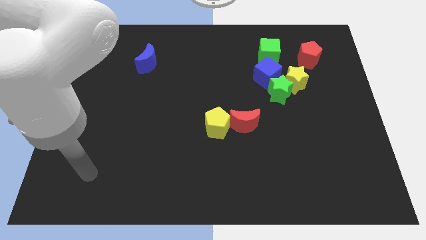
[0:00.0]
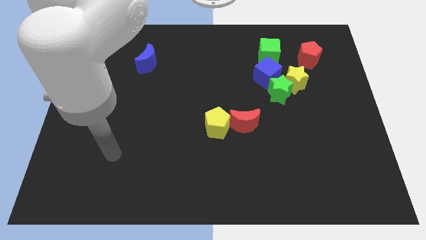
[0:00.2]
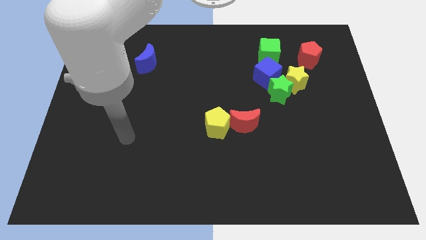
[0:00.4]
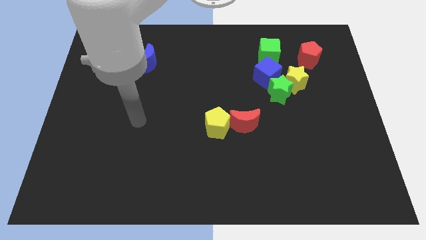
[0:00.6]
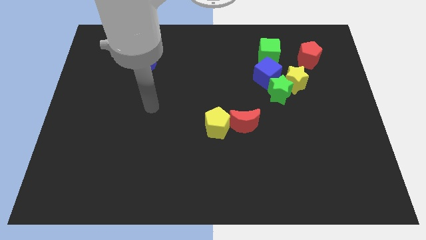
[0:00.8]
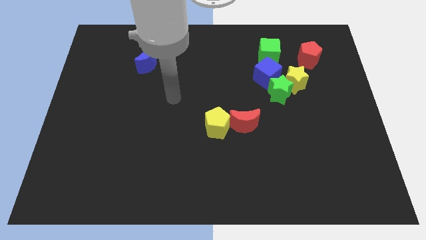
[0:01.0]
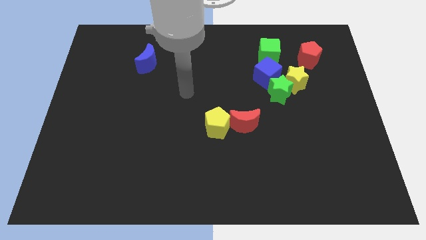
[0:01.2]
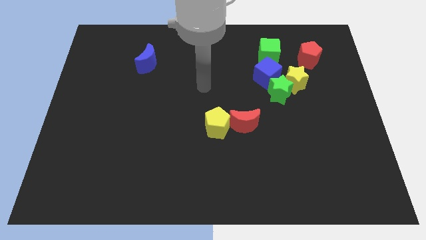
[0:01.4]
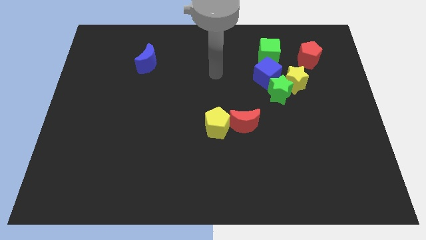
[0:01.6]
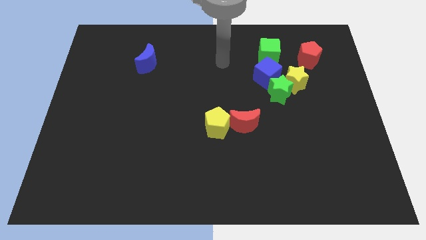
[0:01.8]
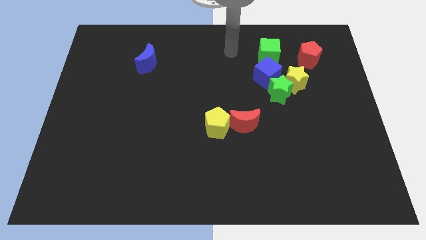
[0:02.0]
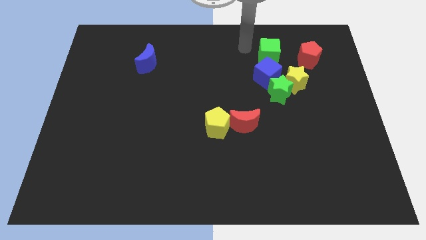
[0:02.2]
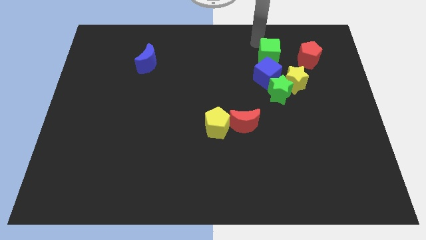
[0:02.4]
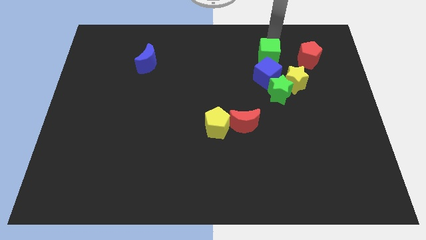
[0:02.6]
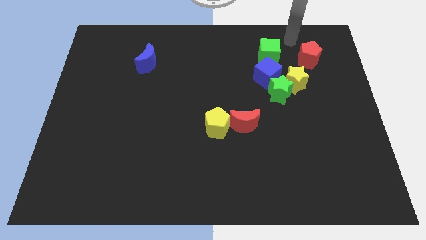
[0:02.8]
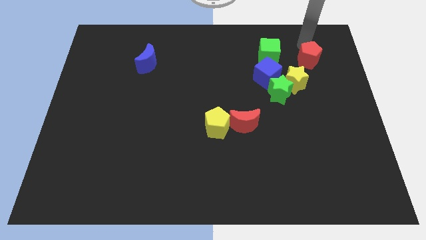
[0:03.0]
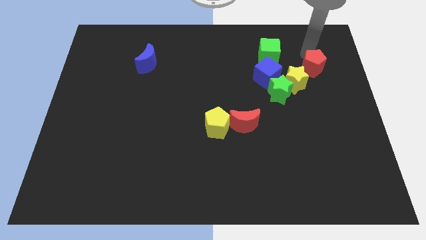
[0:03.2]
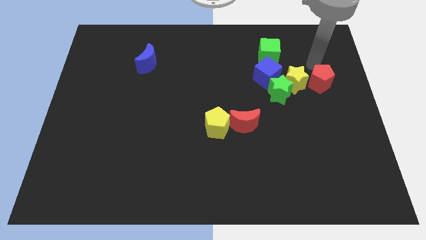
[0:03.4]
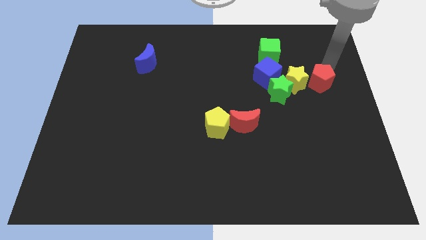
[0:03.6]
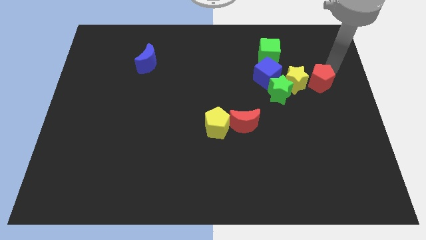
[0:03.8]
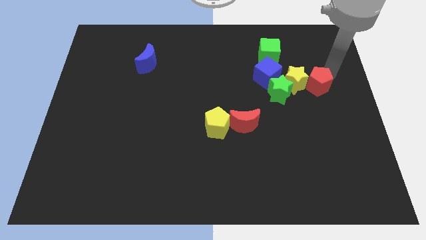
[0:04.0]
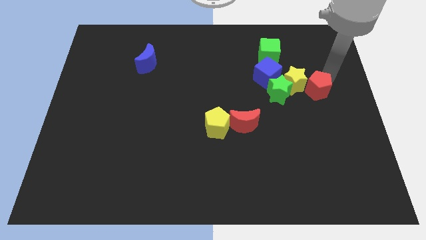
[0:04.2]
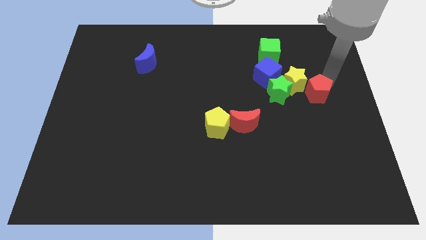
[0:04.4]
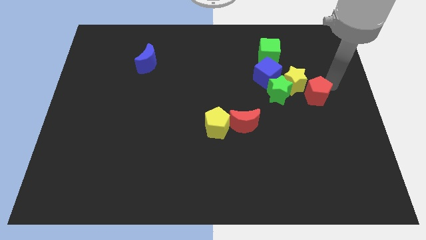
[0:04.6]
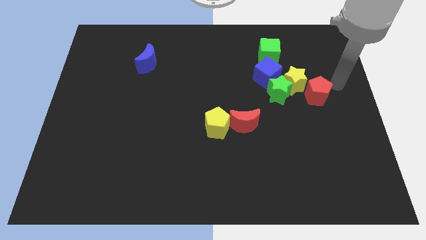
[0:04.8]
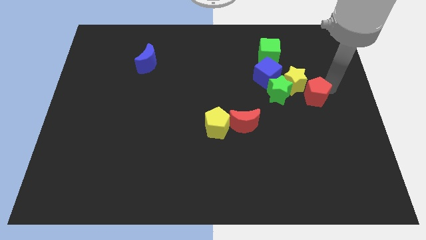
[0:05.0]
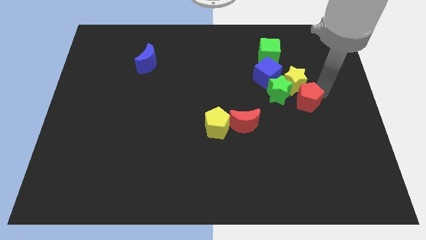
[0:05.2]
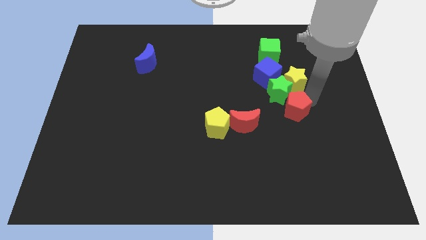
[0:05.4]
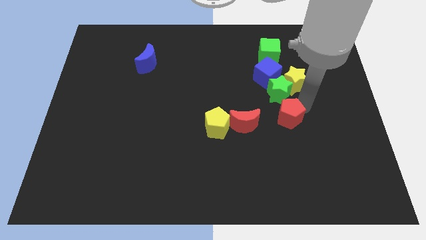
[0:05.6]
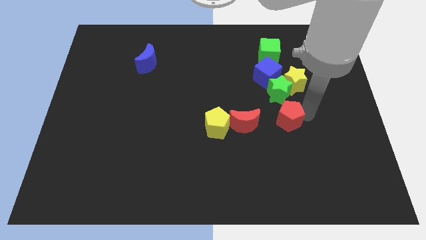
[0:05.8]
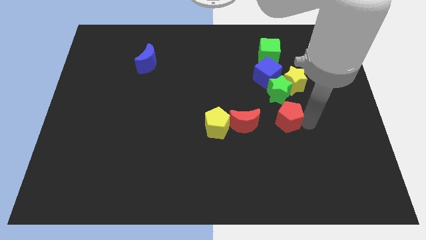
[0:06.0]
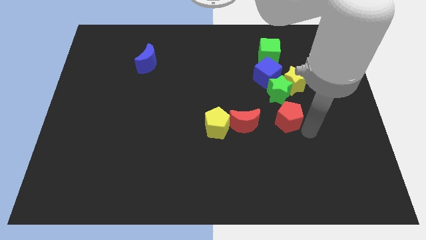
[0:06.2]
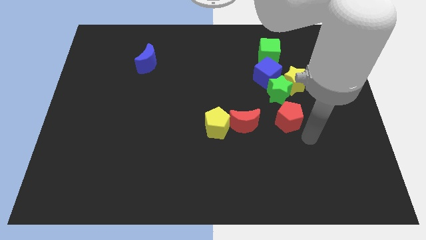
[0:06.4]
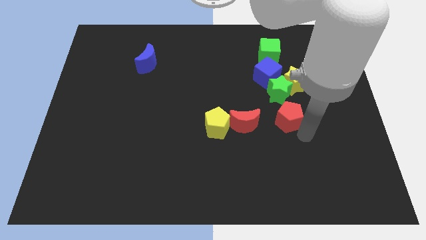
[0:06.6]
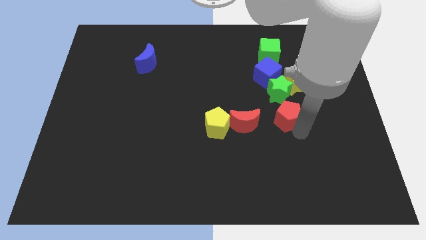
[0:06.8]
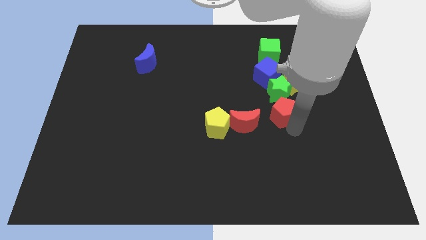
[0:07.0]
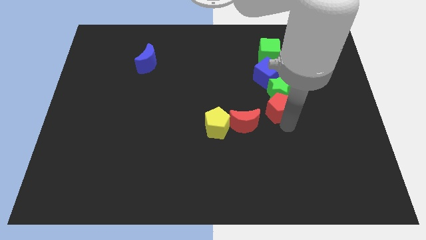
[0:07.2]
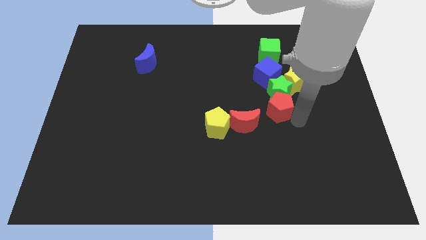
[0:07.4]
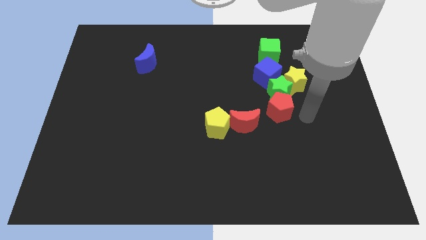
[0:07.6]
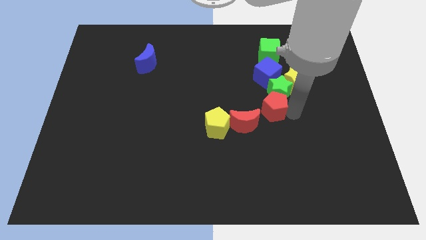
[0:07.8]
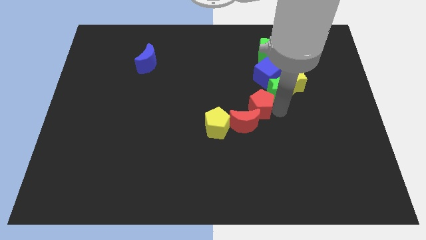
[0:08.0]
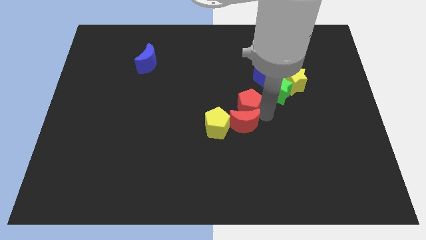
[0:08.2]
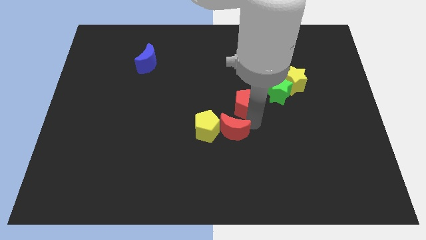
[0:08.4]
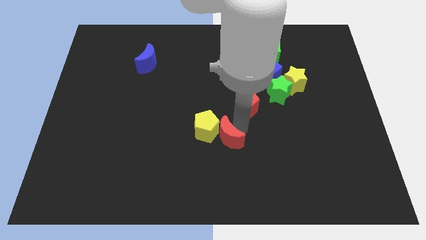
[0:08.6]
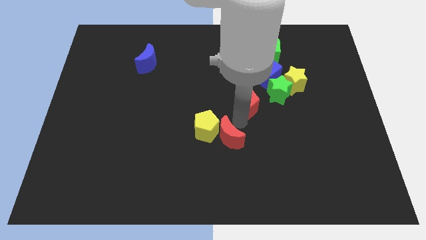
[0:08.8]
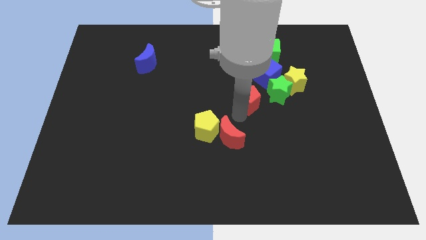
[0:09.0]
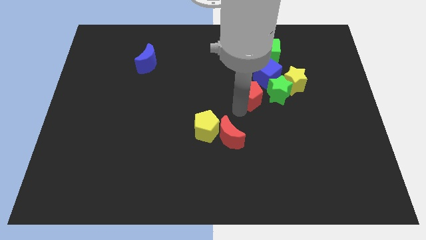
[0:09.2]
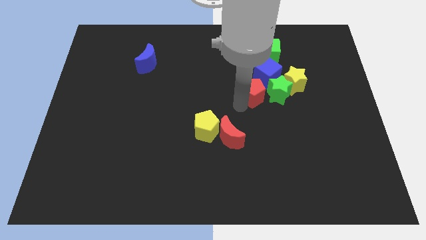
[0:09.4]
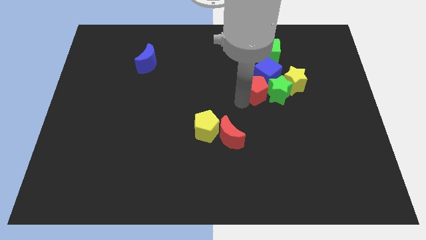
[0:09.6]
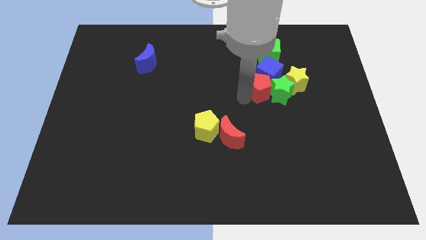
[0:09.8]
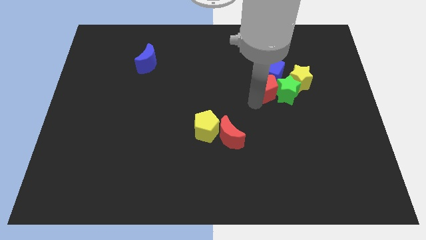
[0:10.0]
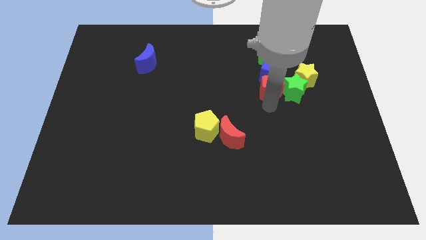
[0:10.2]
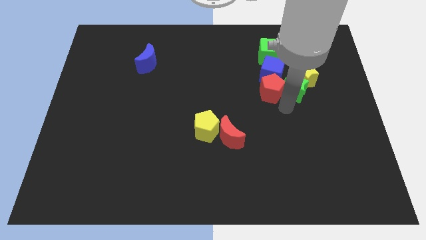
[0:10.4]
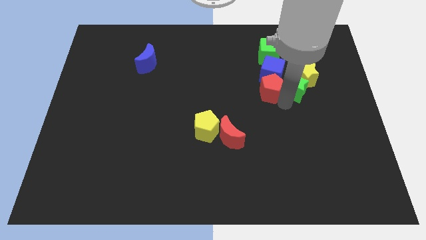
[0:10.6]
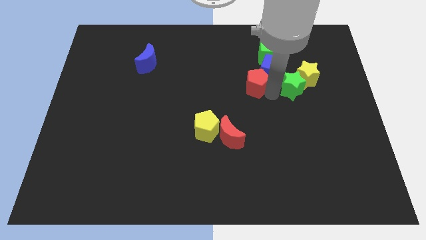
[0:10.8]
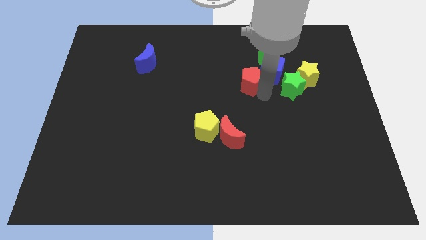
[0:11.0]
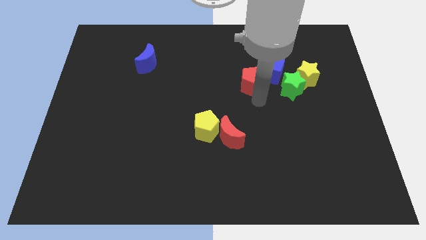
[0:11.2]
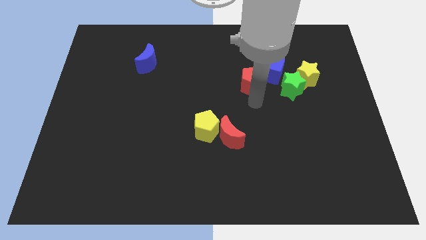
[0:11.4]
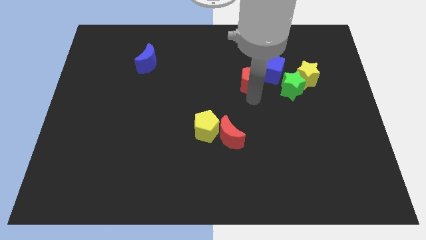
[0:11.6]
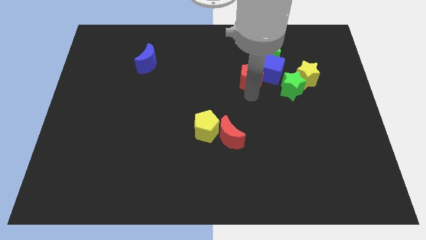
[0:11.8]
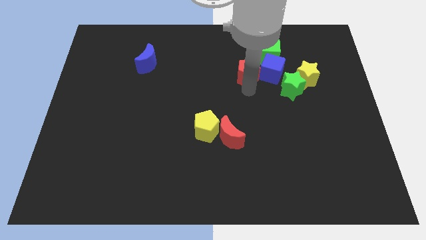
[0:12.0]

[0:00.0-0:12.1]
move the red pentagon to the top left side of the blue cube

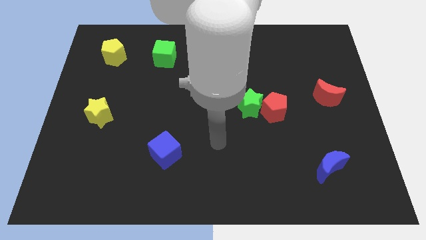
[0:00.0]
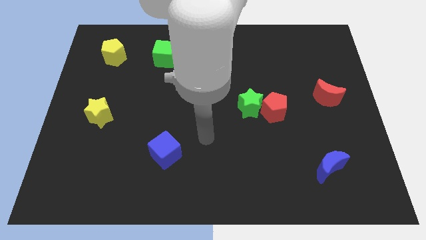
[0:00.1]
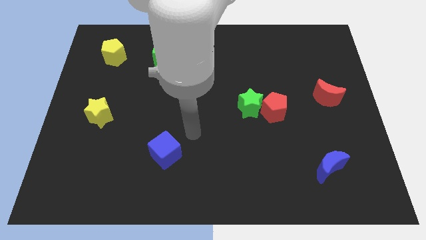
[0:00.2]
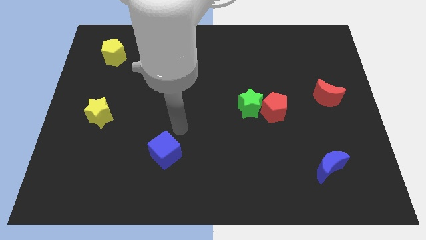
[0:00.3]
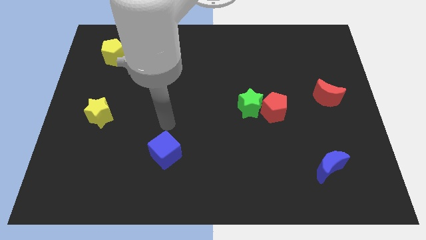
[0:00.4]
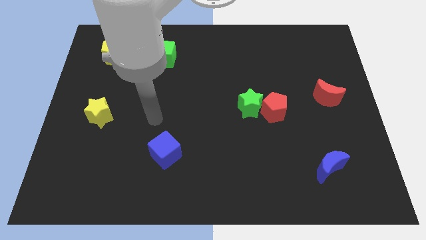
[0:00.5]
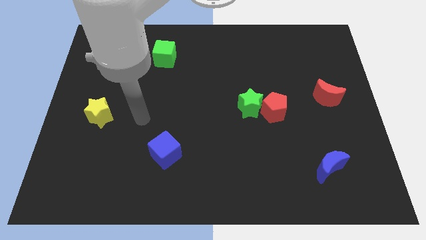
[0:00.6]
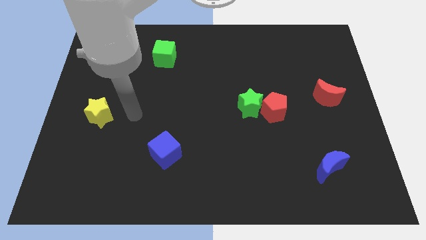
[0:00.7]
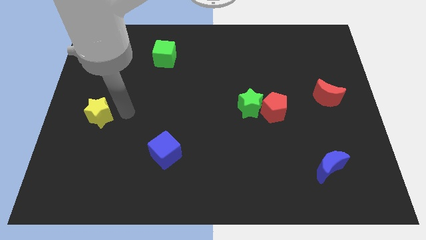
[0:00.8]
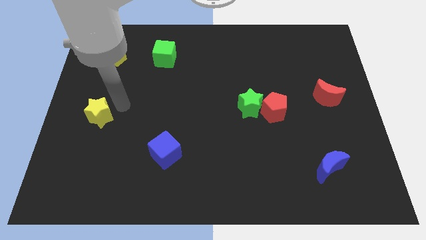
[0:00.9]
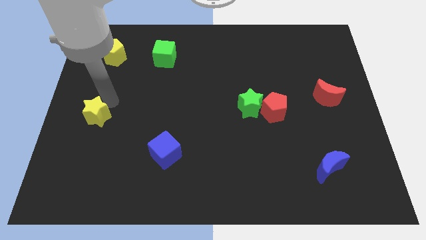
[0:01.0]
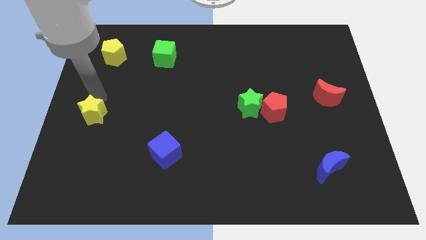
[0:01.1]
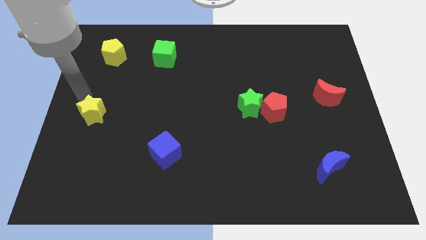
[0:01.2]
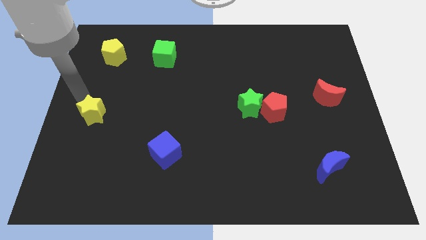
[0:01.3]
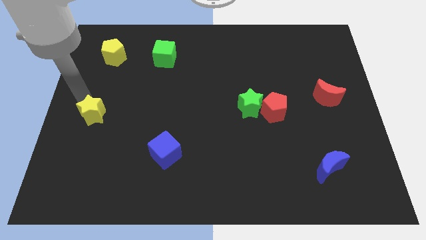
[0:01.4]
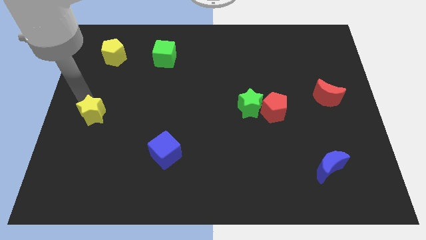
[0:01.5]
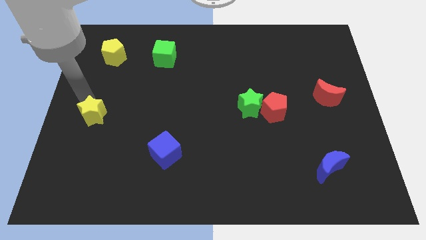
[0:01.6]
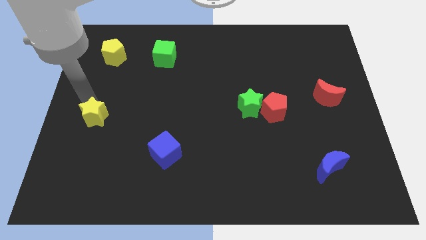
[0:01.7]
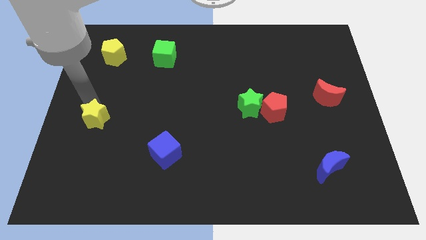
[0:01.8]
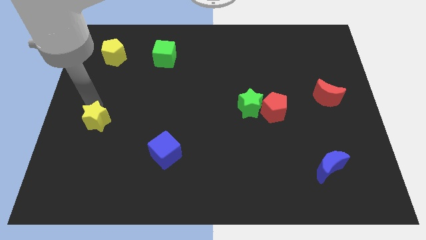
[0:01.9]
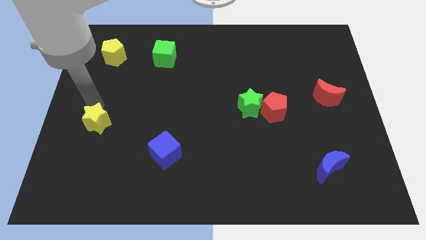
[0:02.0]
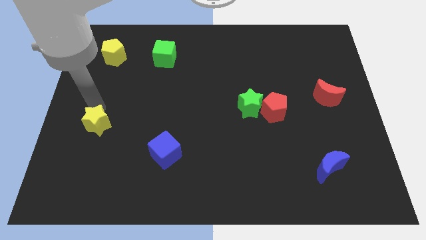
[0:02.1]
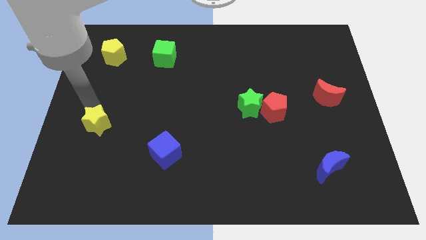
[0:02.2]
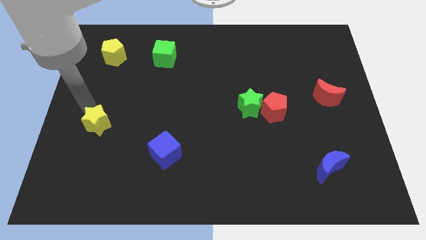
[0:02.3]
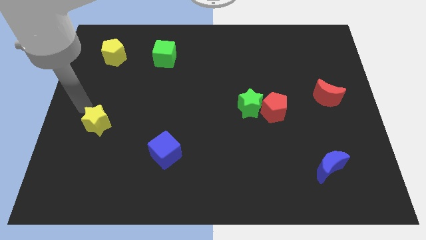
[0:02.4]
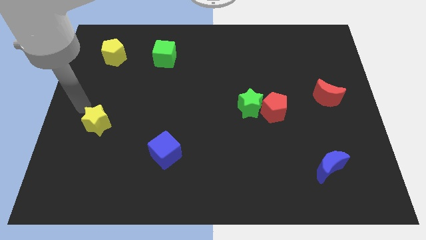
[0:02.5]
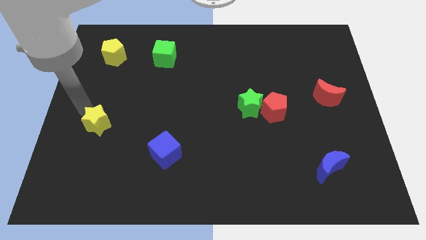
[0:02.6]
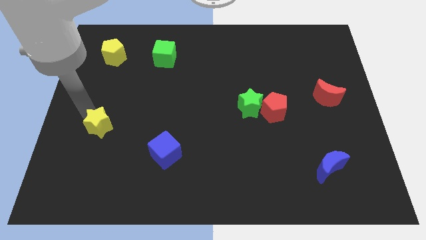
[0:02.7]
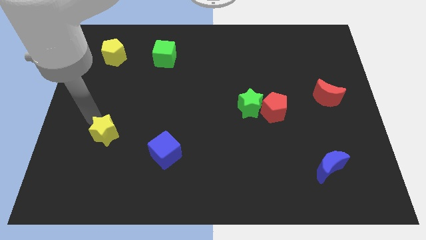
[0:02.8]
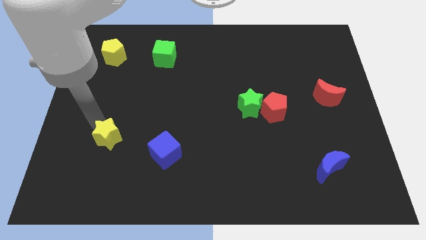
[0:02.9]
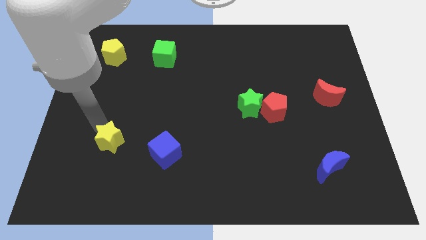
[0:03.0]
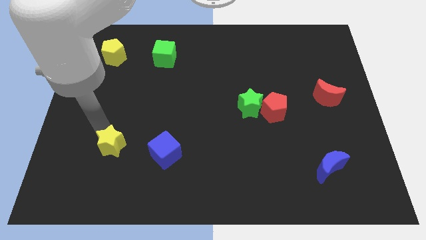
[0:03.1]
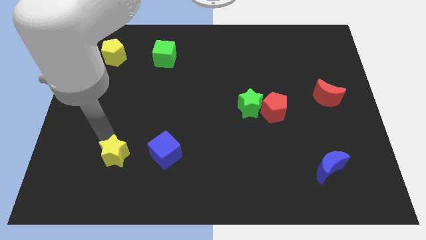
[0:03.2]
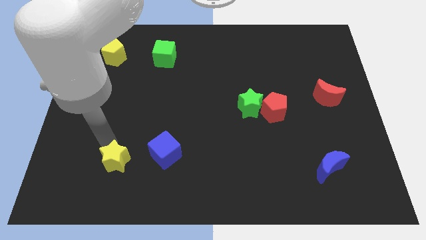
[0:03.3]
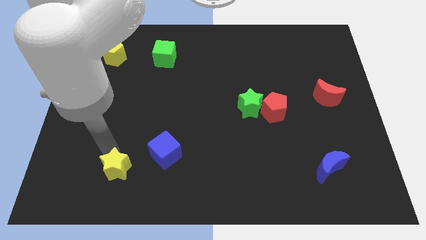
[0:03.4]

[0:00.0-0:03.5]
put the yellow star to the bottom left side of the blue cube
